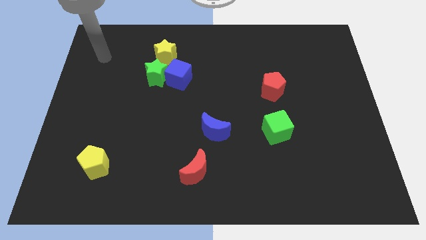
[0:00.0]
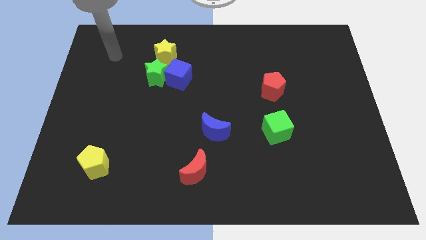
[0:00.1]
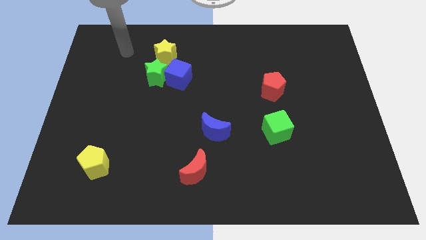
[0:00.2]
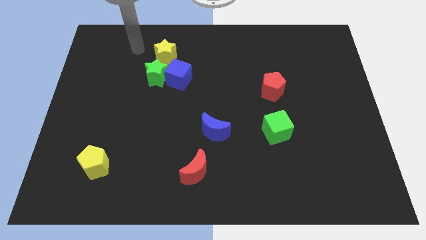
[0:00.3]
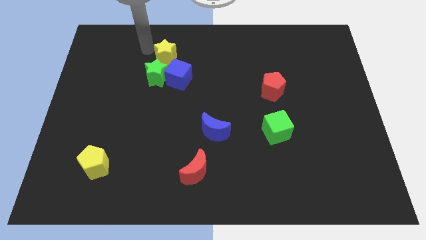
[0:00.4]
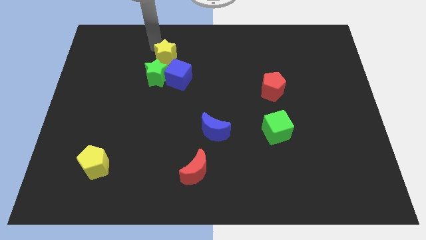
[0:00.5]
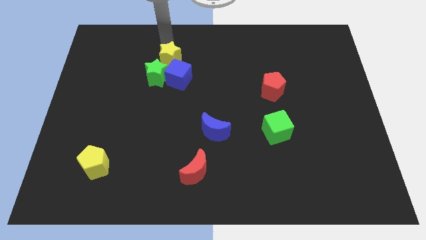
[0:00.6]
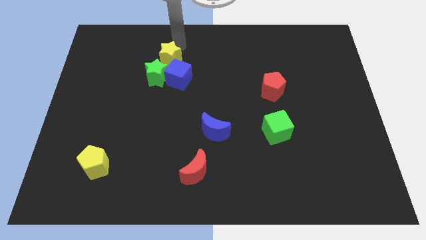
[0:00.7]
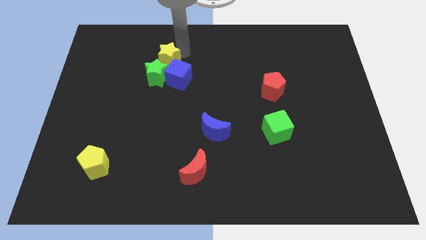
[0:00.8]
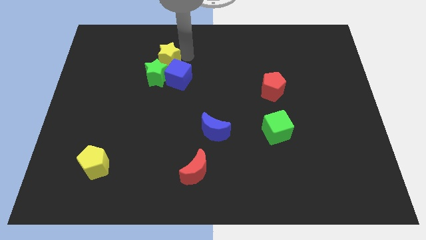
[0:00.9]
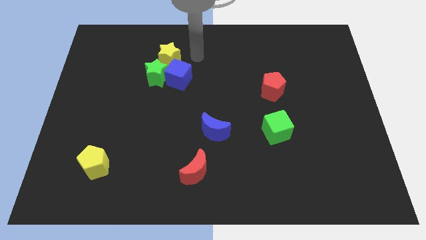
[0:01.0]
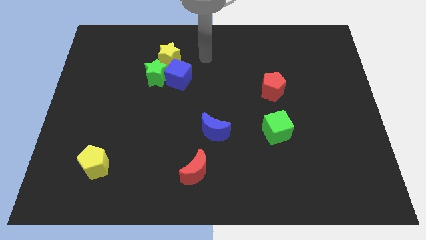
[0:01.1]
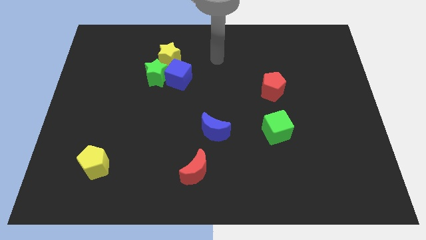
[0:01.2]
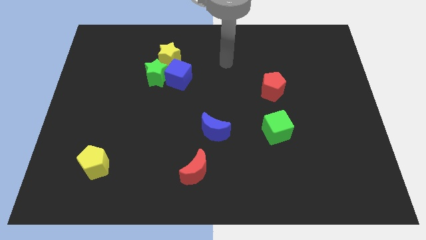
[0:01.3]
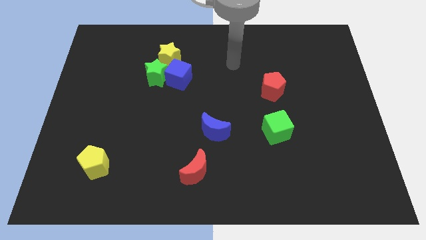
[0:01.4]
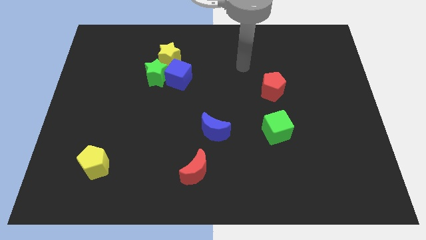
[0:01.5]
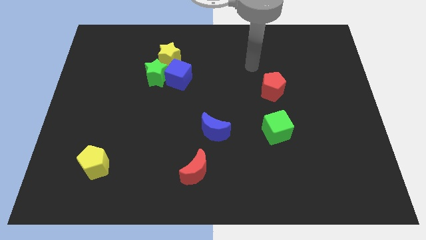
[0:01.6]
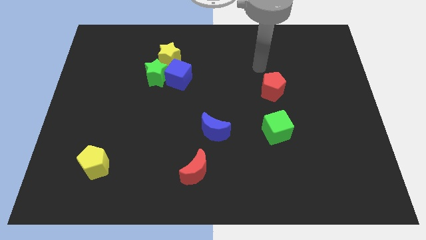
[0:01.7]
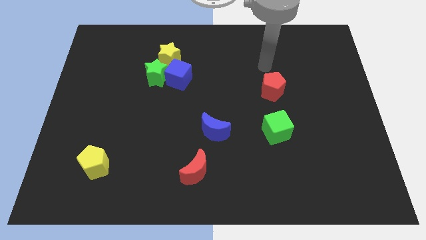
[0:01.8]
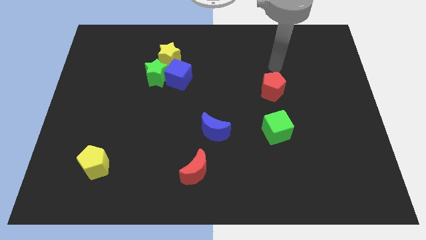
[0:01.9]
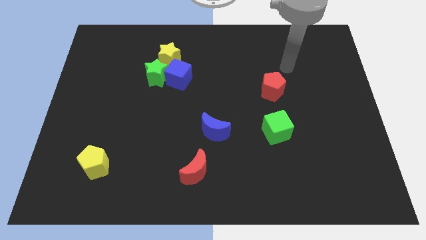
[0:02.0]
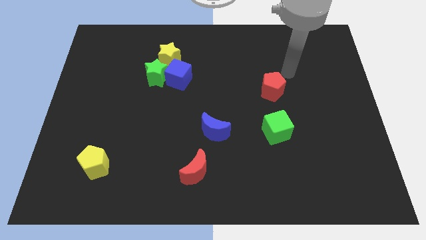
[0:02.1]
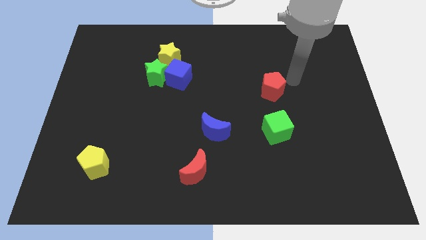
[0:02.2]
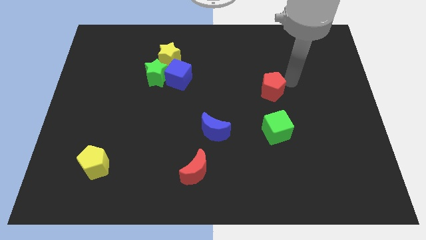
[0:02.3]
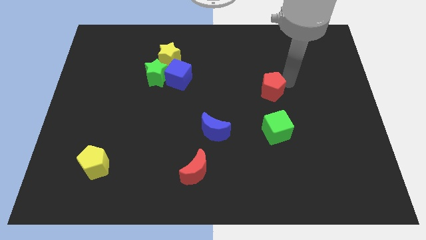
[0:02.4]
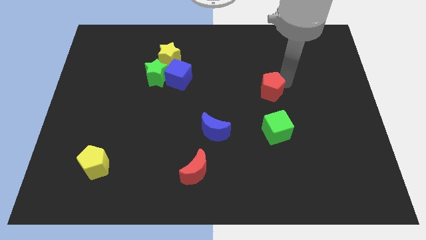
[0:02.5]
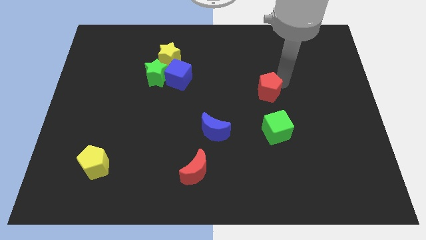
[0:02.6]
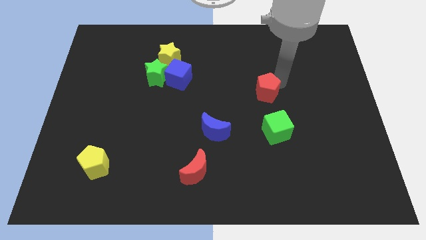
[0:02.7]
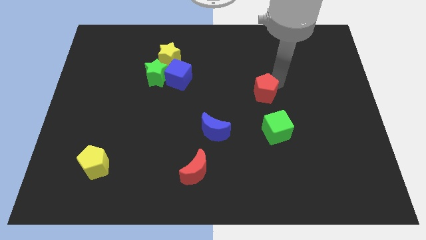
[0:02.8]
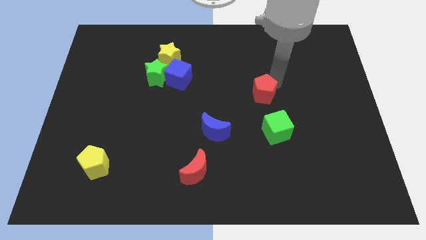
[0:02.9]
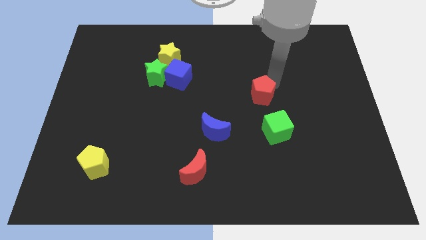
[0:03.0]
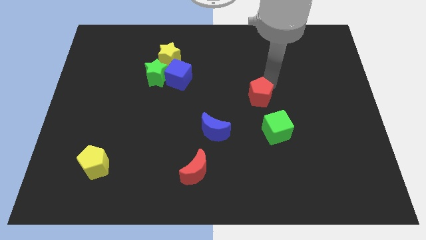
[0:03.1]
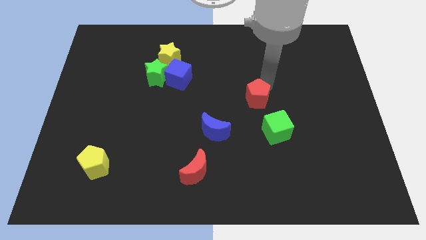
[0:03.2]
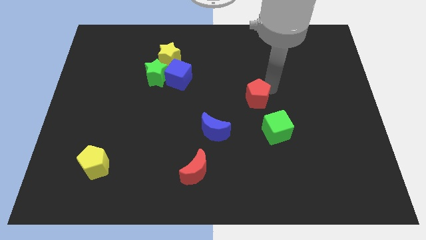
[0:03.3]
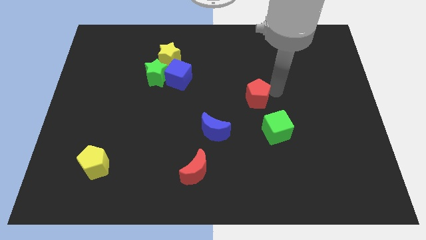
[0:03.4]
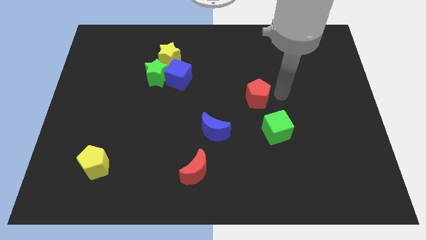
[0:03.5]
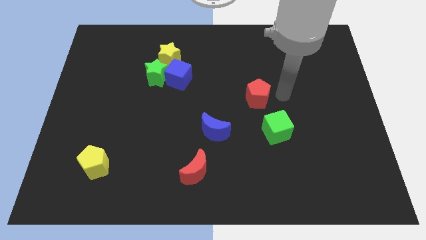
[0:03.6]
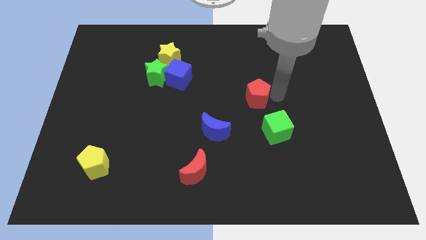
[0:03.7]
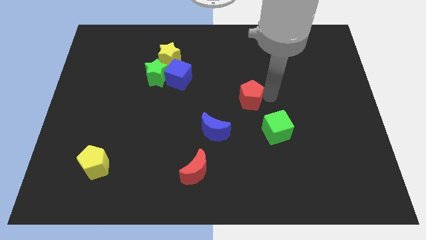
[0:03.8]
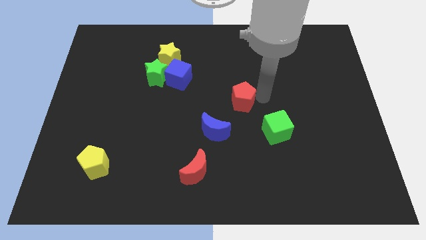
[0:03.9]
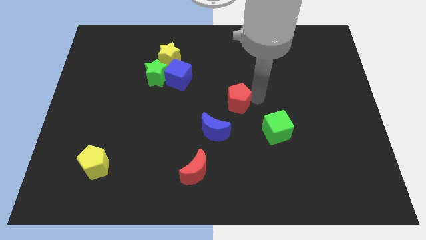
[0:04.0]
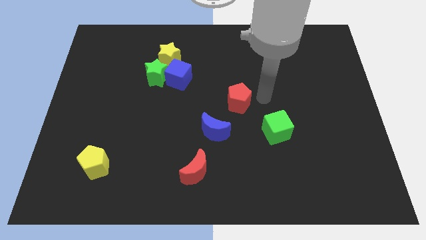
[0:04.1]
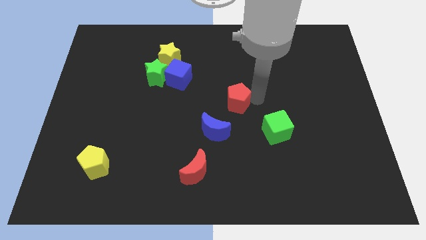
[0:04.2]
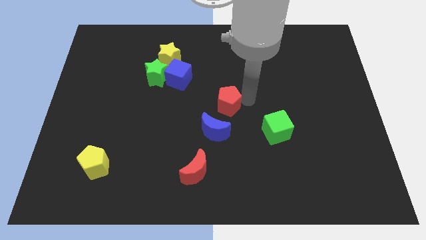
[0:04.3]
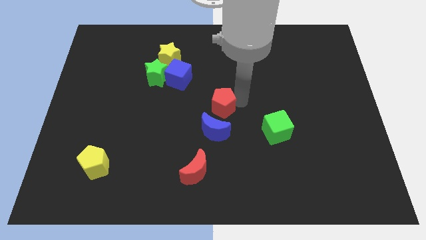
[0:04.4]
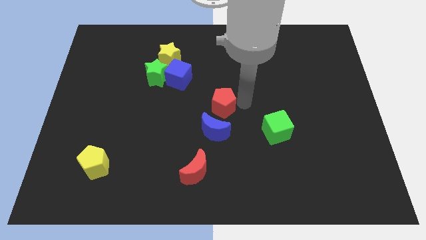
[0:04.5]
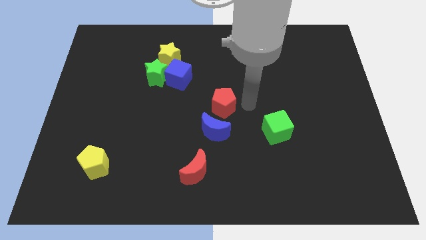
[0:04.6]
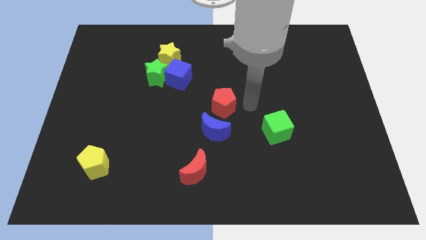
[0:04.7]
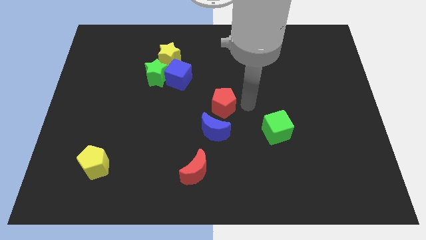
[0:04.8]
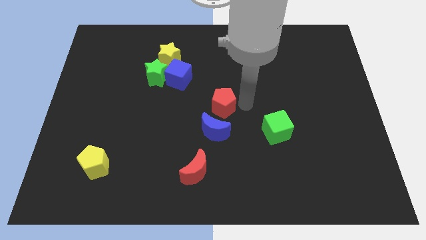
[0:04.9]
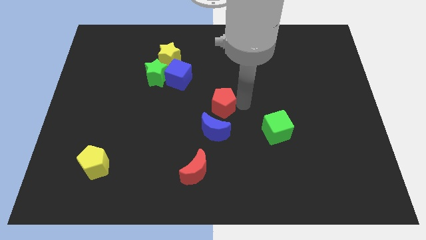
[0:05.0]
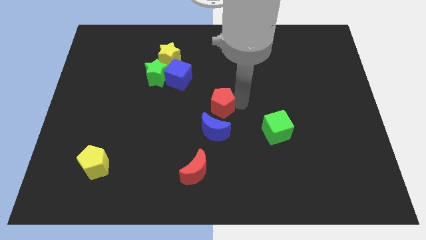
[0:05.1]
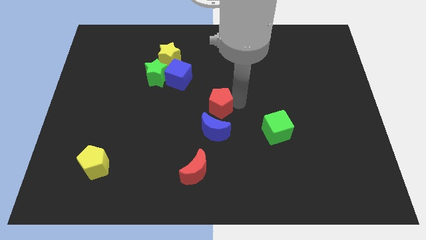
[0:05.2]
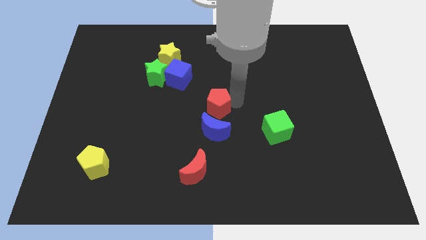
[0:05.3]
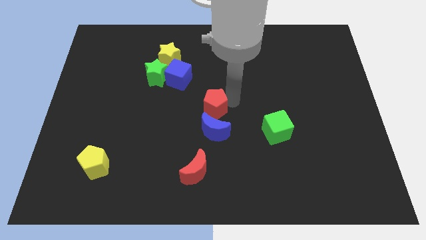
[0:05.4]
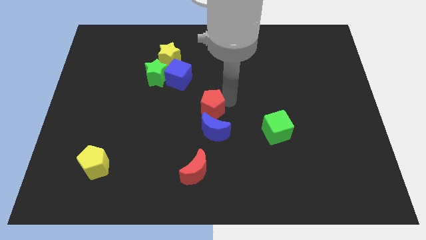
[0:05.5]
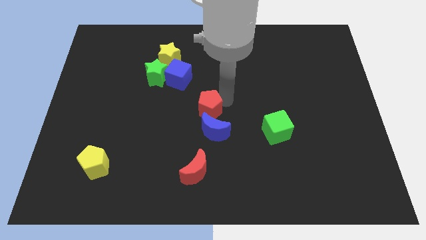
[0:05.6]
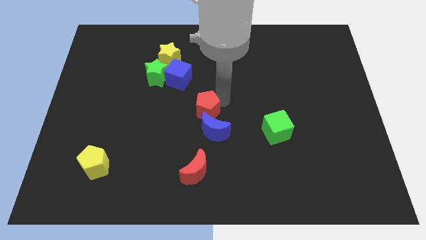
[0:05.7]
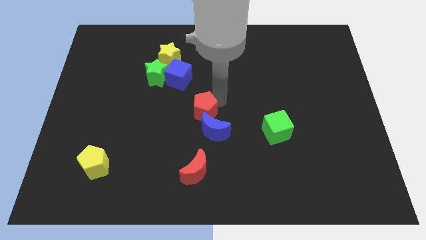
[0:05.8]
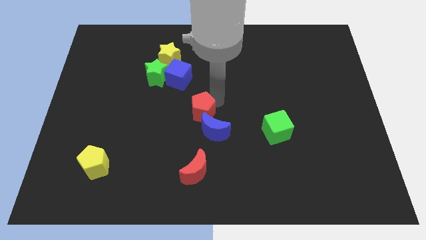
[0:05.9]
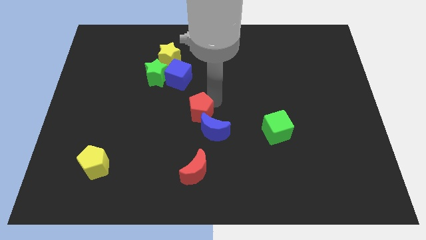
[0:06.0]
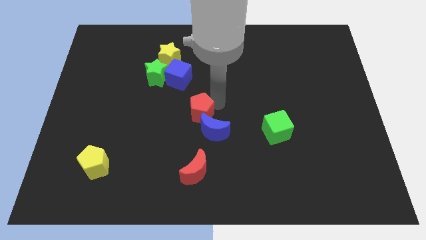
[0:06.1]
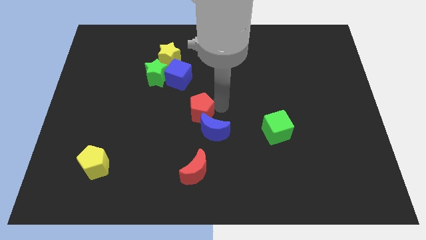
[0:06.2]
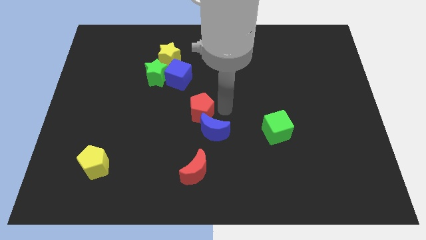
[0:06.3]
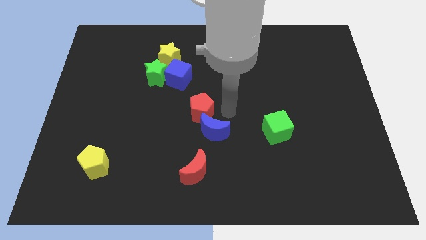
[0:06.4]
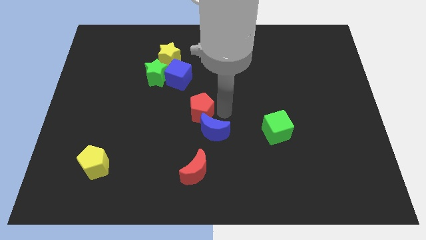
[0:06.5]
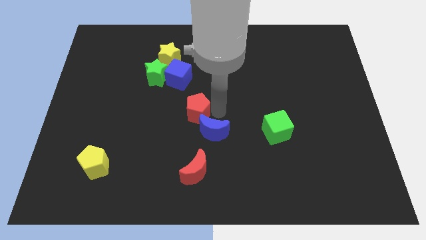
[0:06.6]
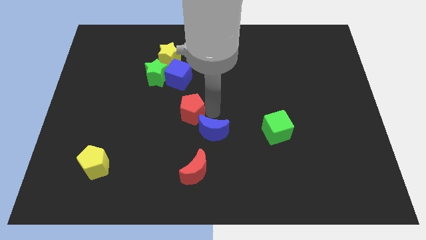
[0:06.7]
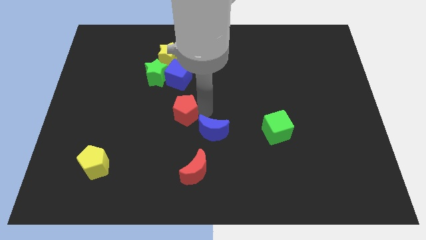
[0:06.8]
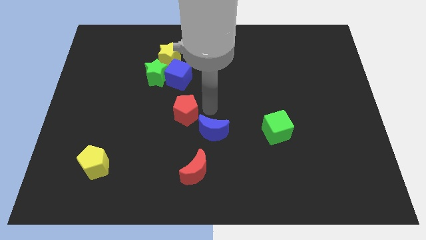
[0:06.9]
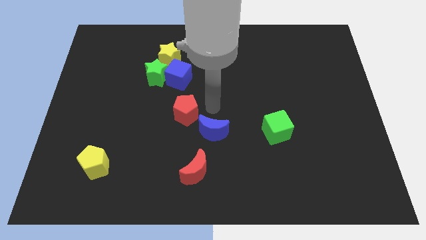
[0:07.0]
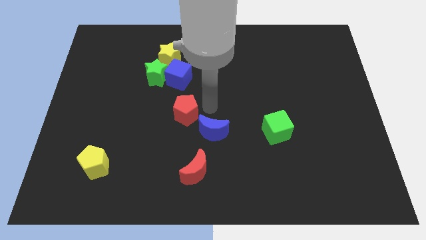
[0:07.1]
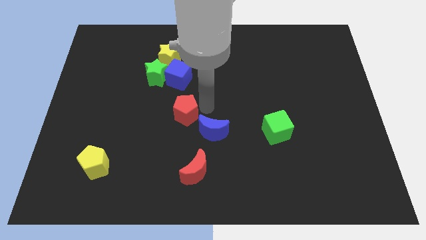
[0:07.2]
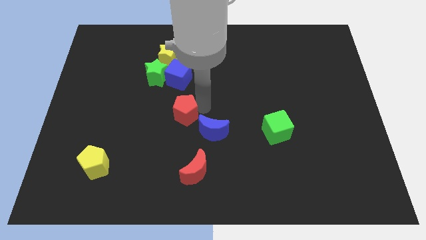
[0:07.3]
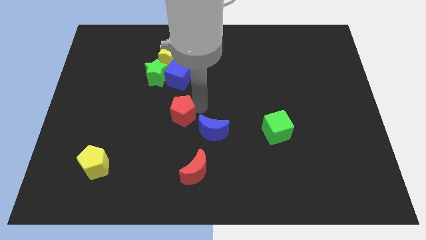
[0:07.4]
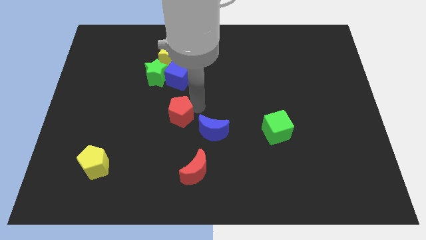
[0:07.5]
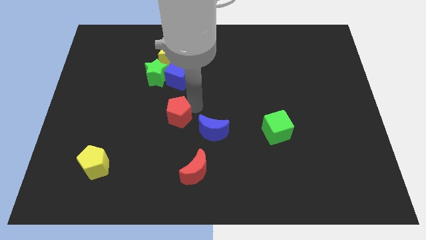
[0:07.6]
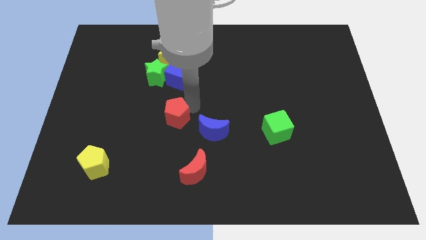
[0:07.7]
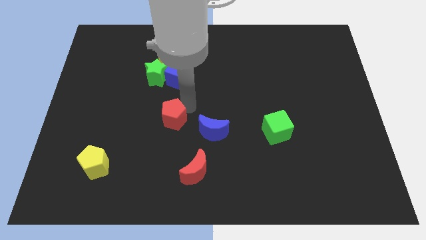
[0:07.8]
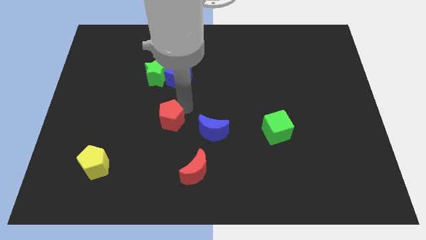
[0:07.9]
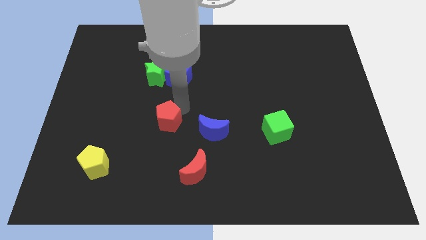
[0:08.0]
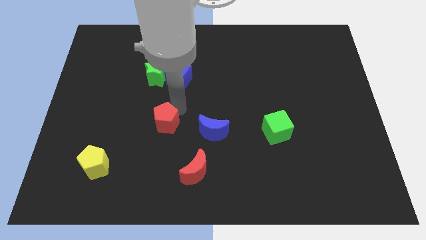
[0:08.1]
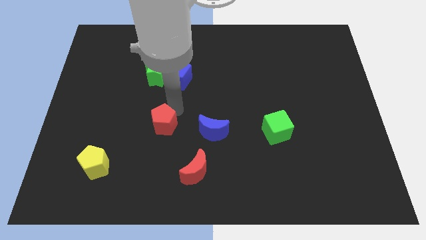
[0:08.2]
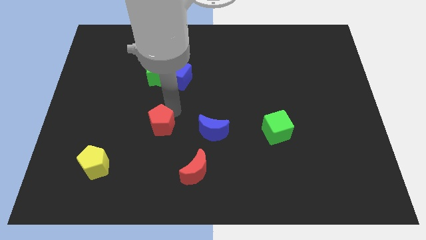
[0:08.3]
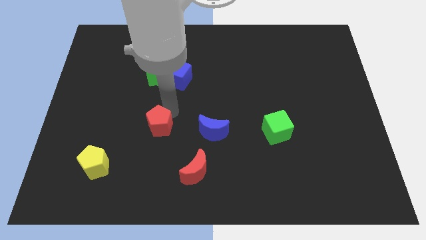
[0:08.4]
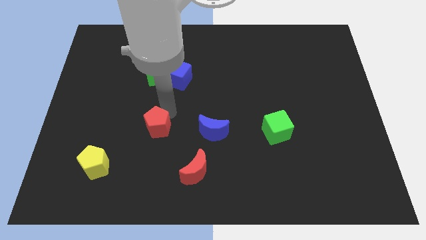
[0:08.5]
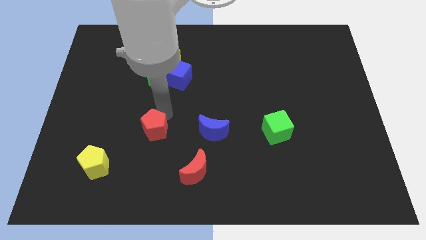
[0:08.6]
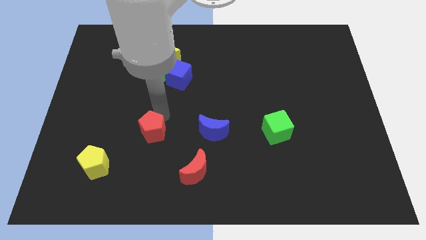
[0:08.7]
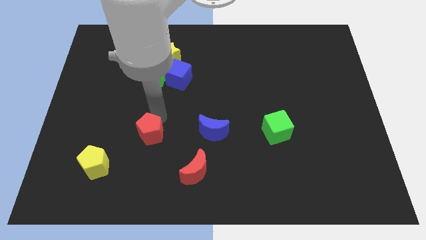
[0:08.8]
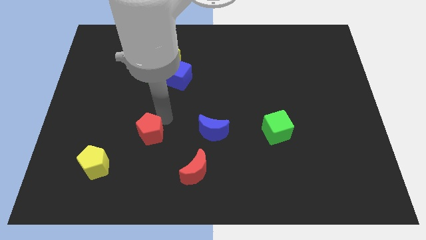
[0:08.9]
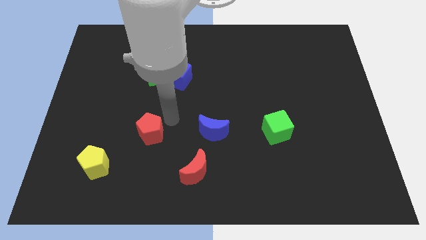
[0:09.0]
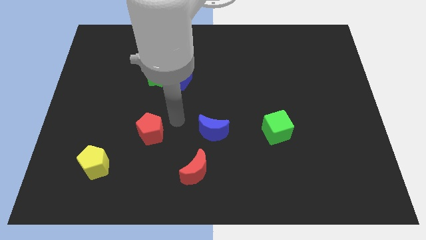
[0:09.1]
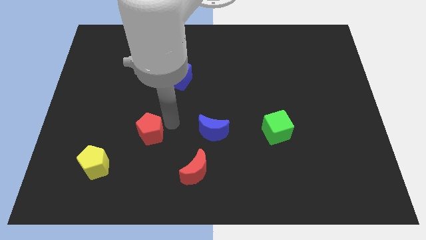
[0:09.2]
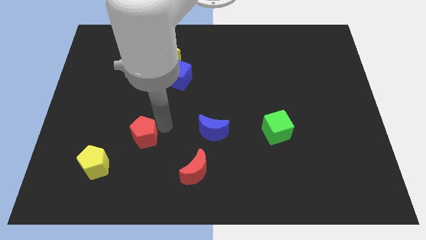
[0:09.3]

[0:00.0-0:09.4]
put the red pentagon to the top right side of the yellow pentagon
